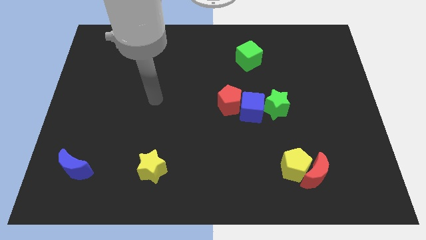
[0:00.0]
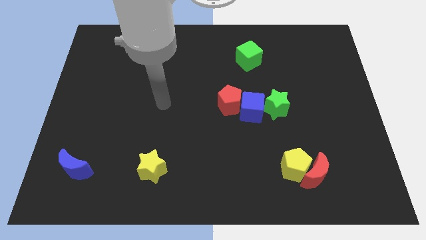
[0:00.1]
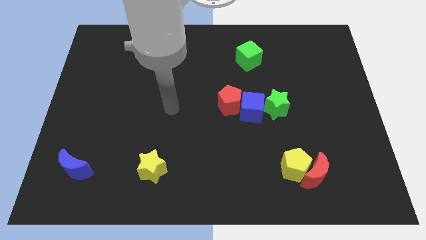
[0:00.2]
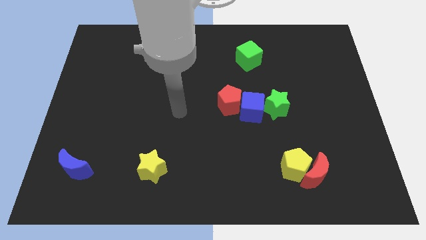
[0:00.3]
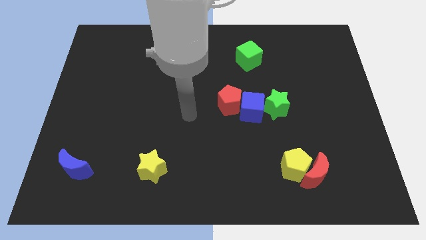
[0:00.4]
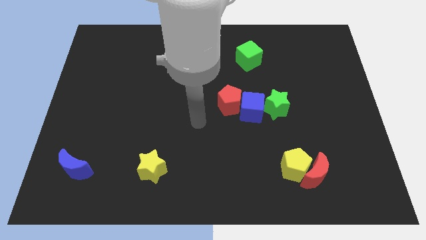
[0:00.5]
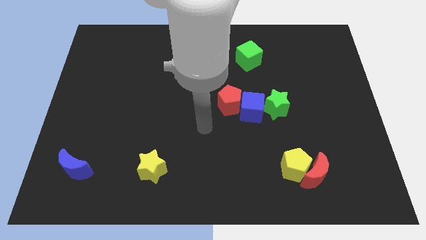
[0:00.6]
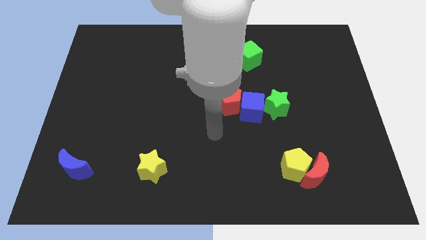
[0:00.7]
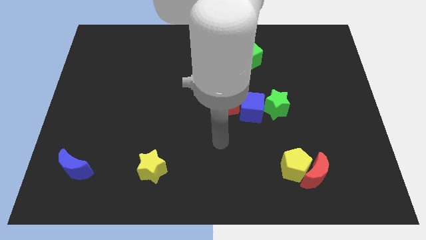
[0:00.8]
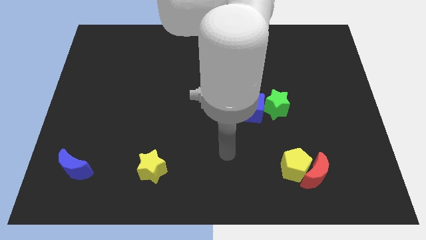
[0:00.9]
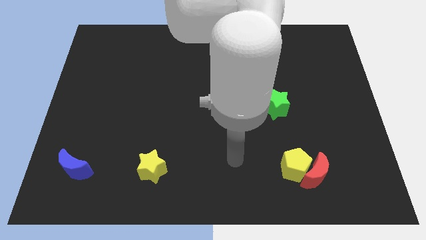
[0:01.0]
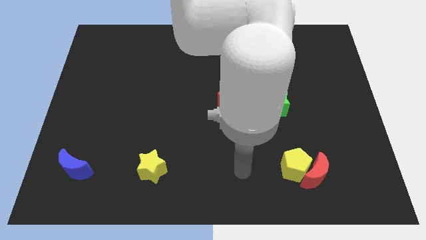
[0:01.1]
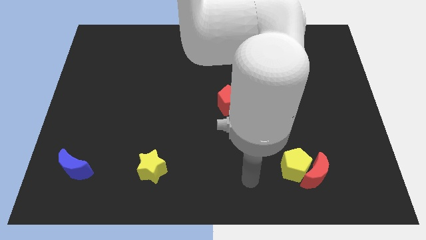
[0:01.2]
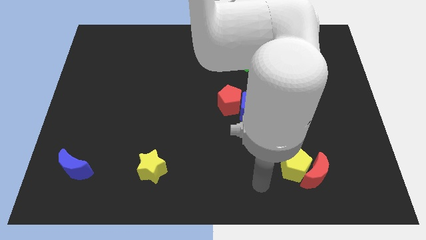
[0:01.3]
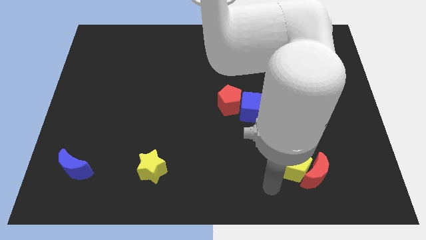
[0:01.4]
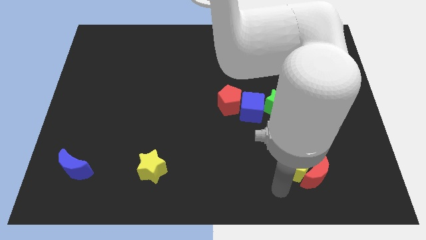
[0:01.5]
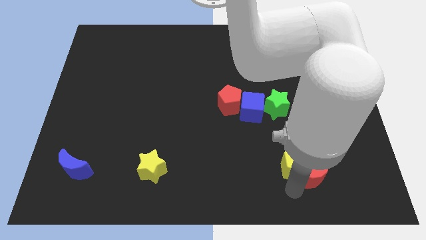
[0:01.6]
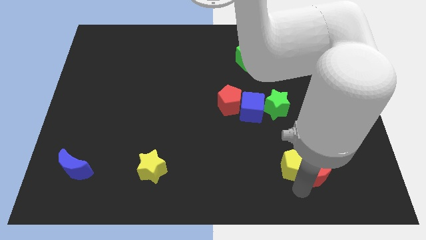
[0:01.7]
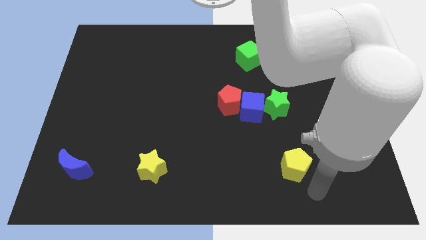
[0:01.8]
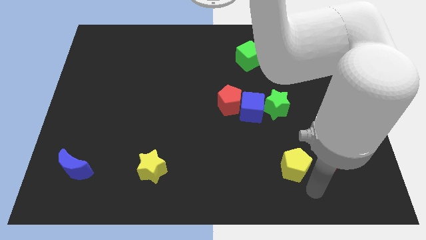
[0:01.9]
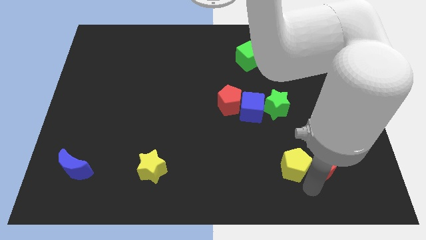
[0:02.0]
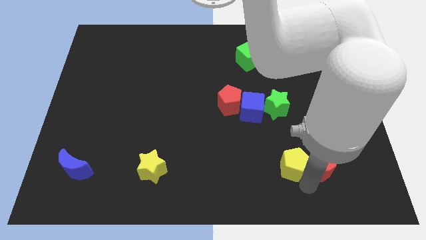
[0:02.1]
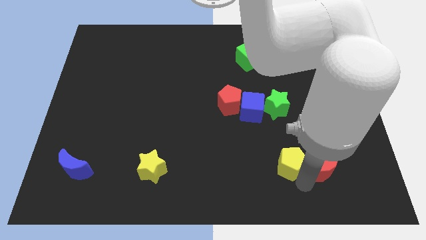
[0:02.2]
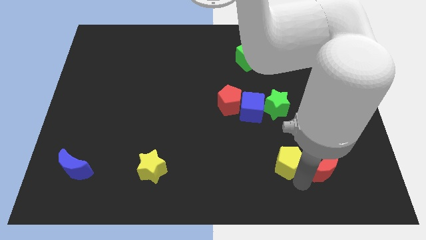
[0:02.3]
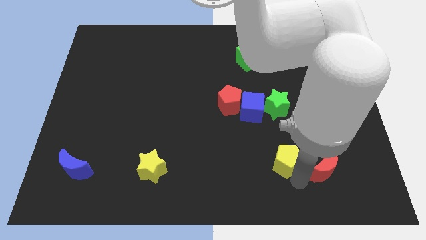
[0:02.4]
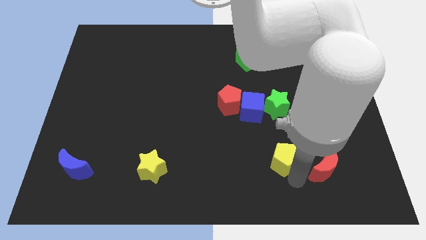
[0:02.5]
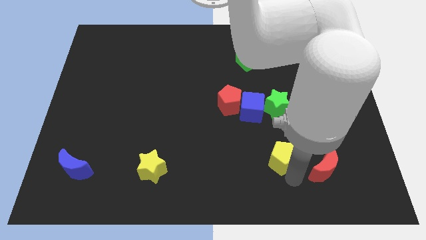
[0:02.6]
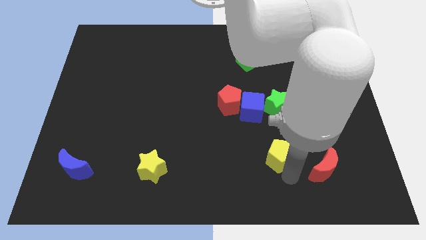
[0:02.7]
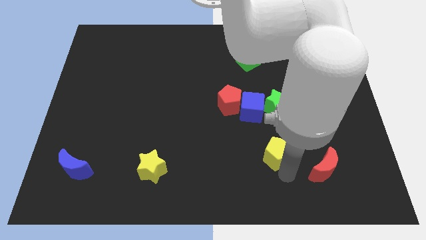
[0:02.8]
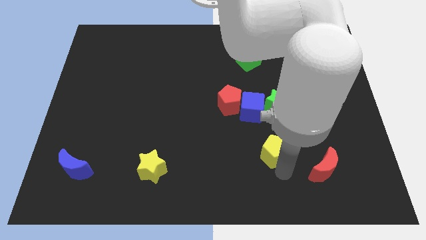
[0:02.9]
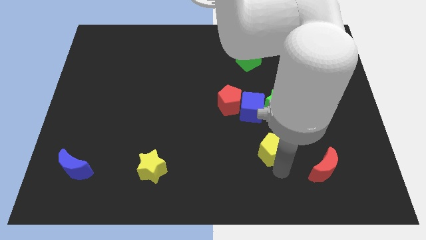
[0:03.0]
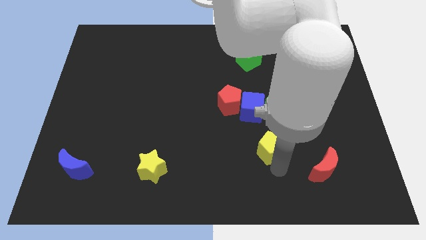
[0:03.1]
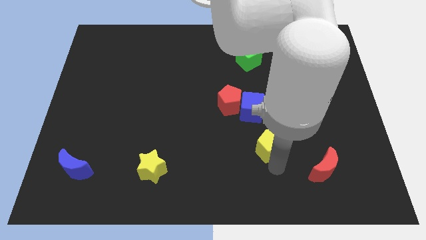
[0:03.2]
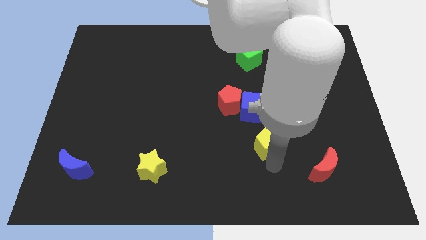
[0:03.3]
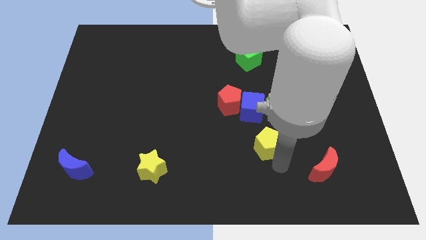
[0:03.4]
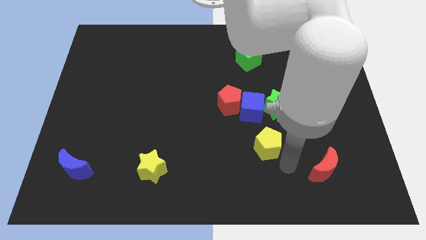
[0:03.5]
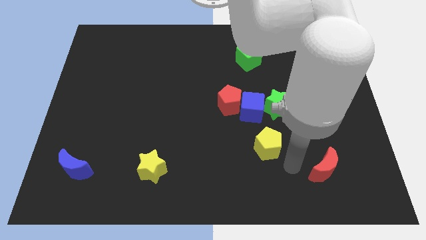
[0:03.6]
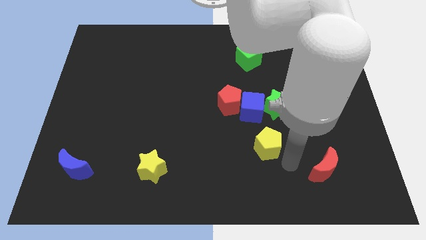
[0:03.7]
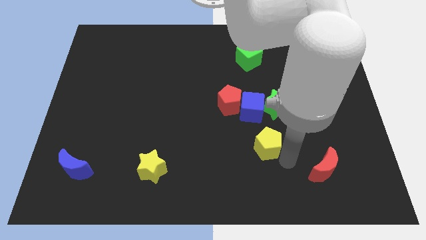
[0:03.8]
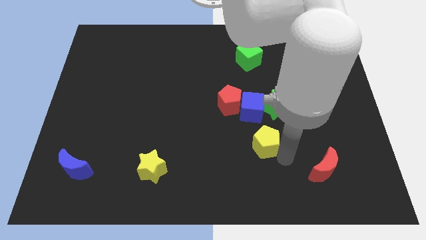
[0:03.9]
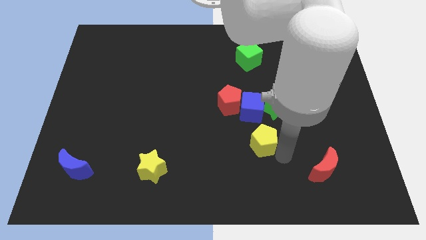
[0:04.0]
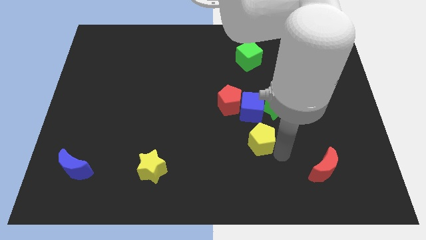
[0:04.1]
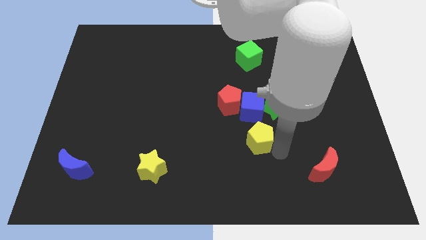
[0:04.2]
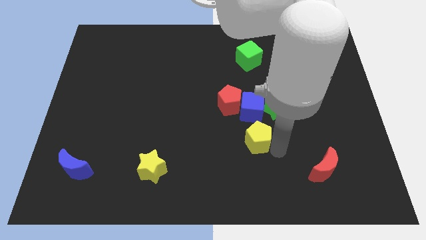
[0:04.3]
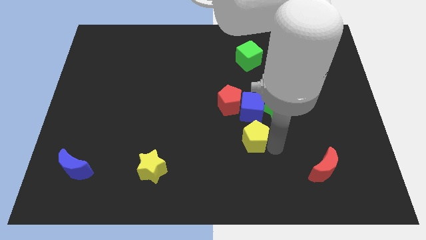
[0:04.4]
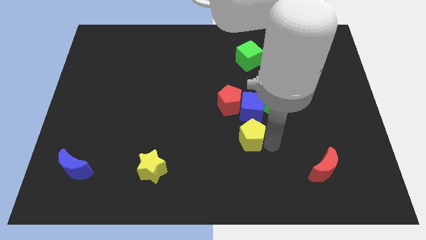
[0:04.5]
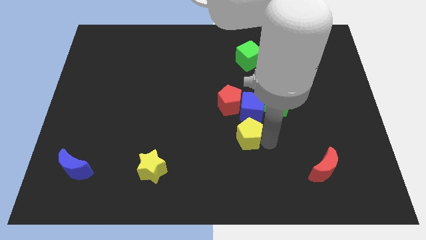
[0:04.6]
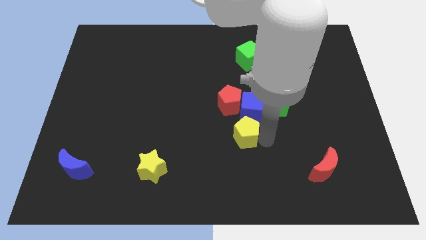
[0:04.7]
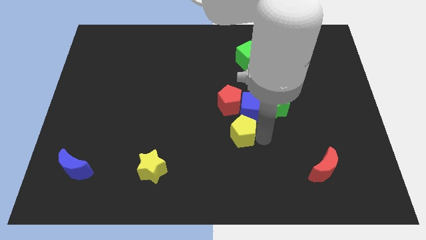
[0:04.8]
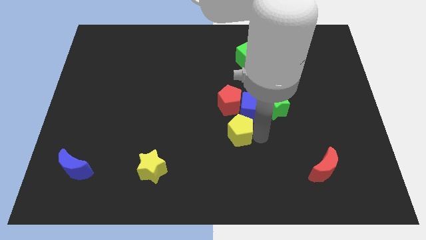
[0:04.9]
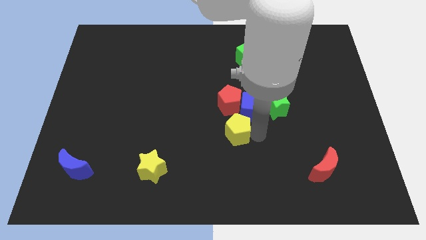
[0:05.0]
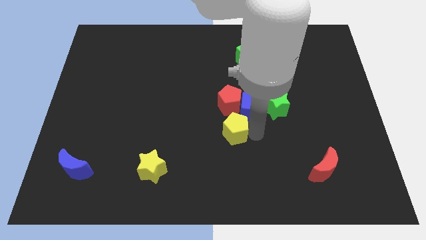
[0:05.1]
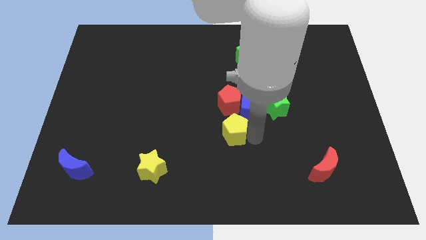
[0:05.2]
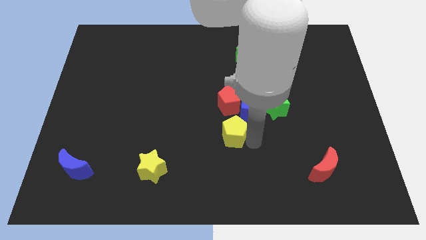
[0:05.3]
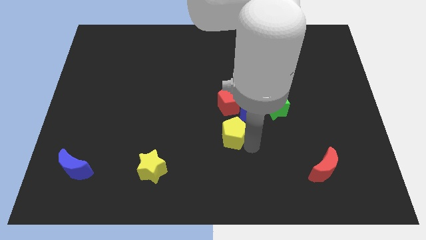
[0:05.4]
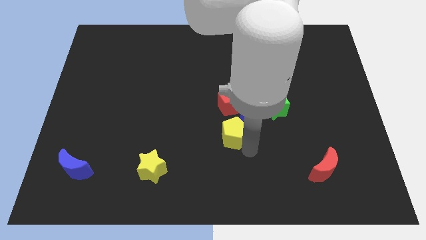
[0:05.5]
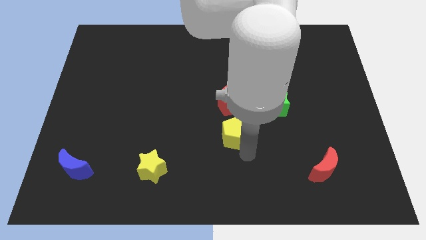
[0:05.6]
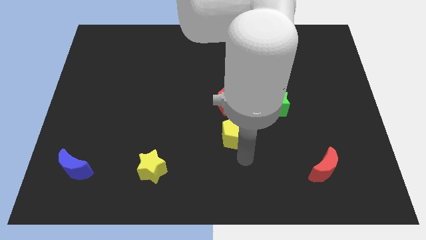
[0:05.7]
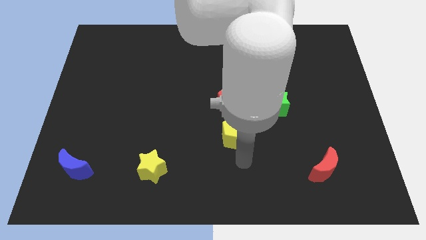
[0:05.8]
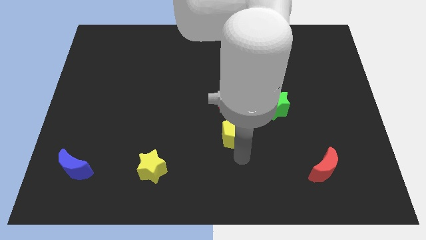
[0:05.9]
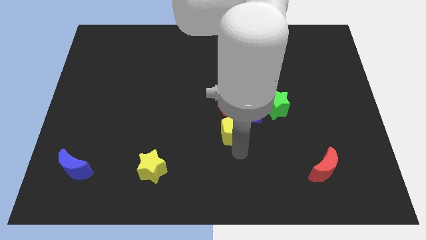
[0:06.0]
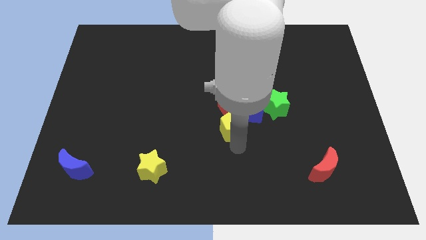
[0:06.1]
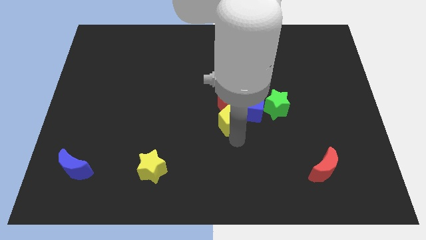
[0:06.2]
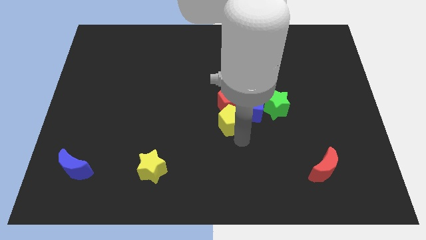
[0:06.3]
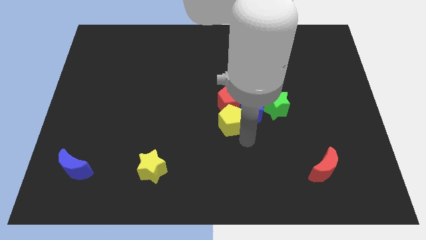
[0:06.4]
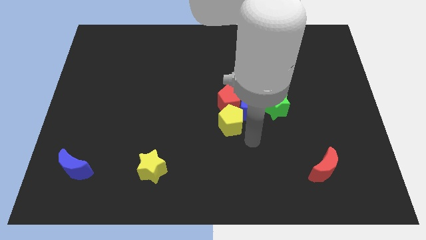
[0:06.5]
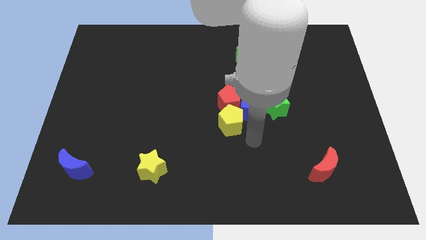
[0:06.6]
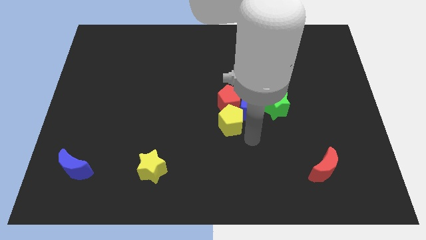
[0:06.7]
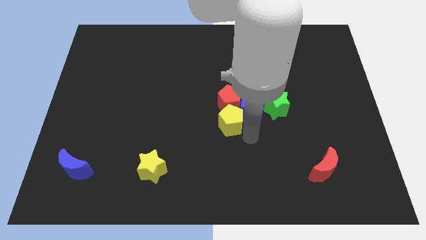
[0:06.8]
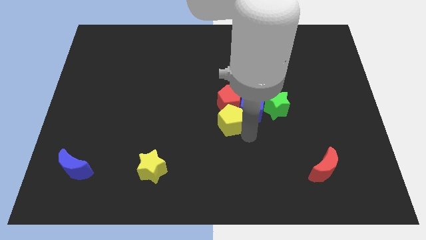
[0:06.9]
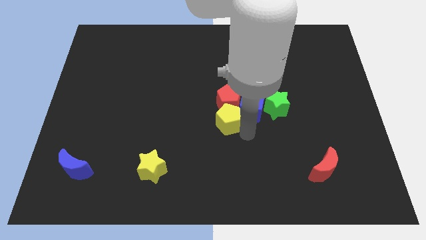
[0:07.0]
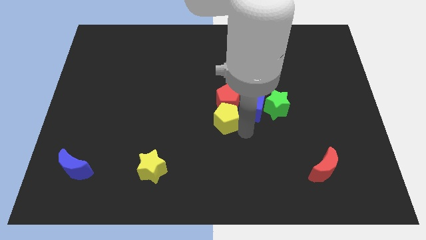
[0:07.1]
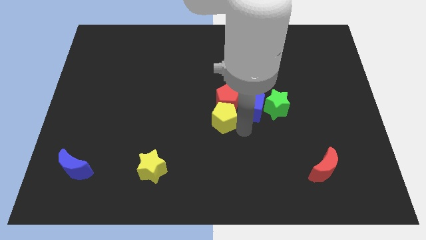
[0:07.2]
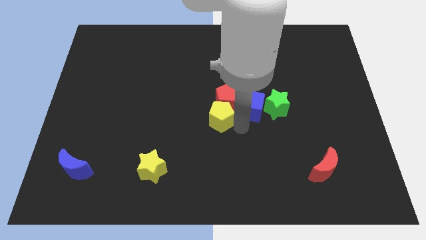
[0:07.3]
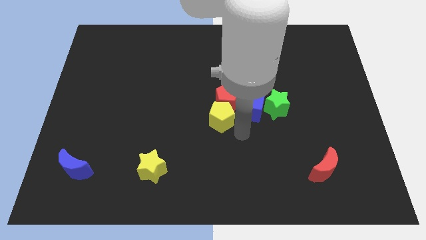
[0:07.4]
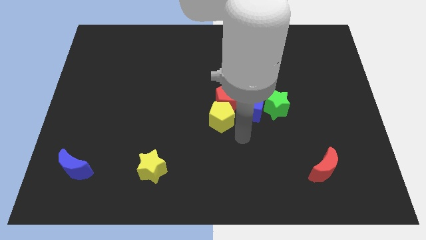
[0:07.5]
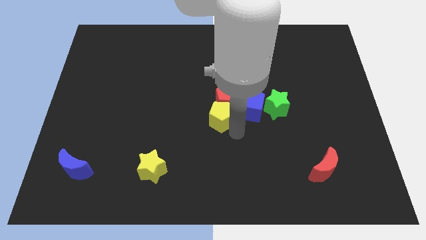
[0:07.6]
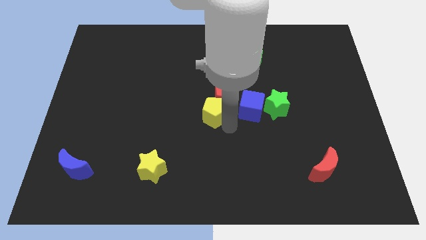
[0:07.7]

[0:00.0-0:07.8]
push the yellow pentagon up and left diagonally
